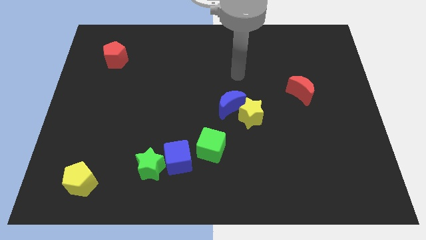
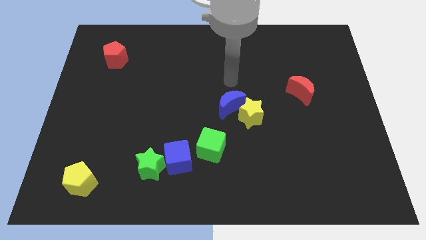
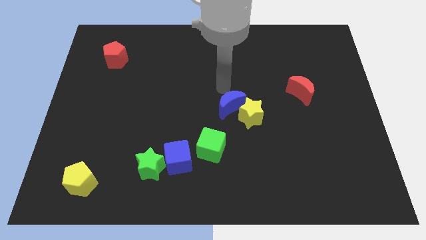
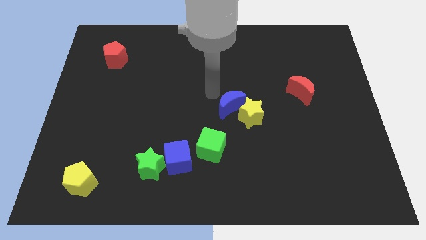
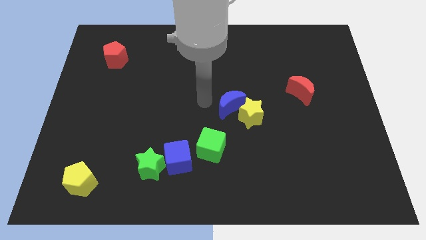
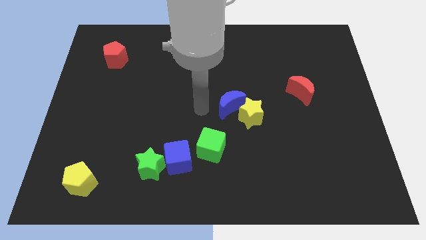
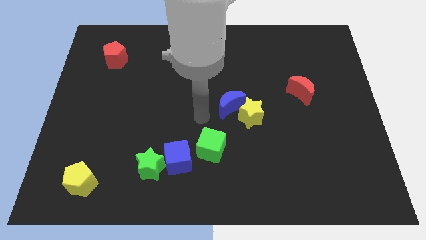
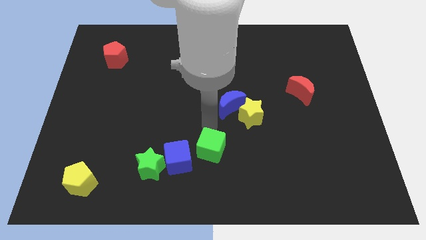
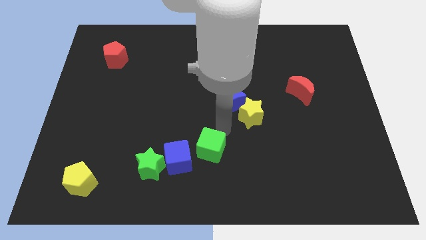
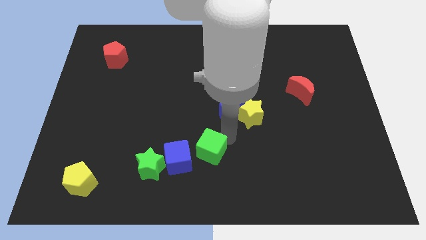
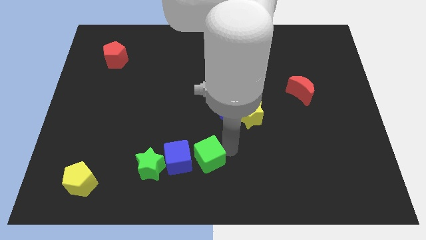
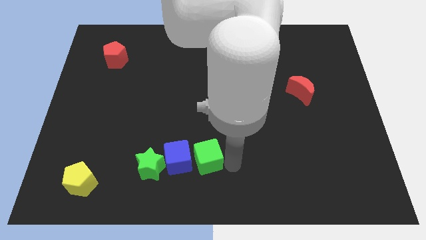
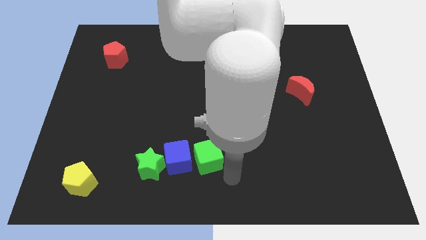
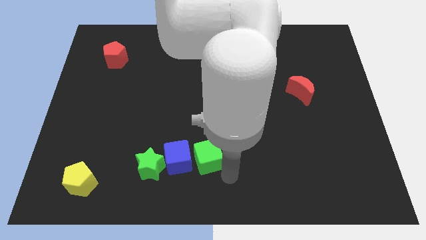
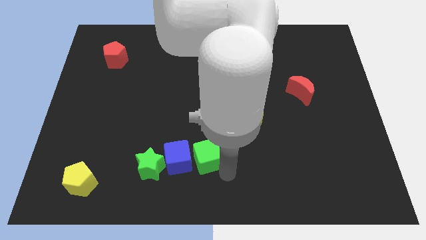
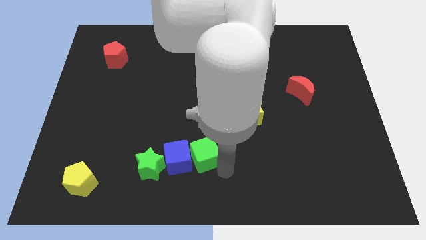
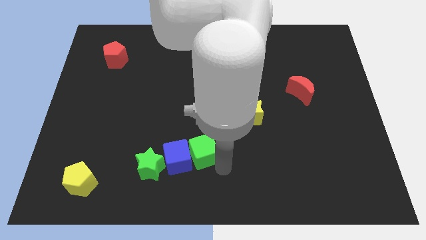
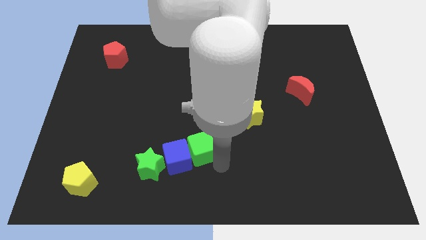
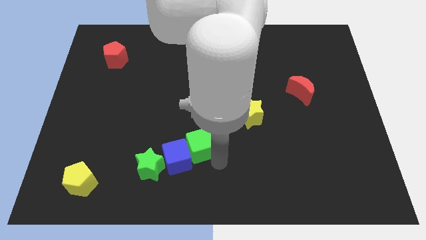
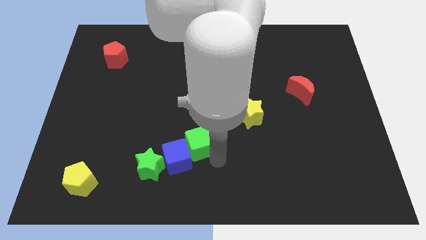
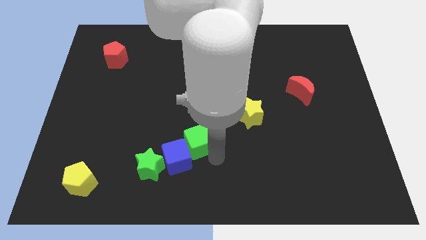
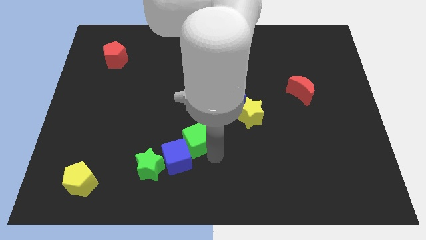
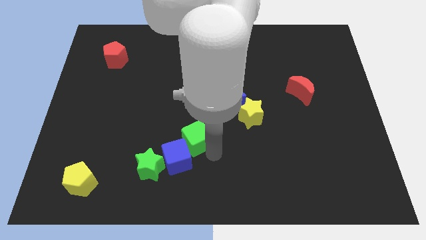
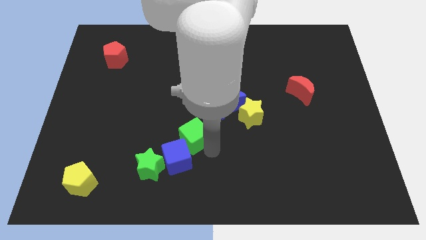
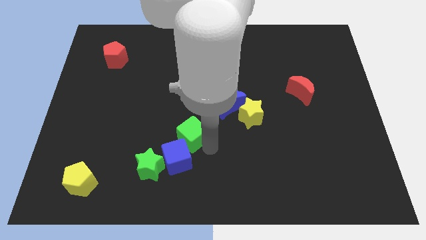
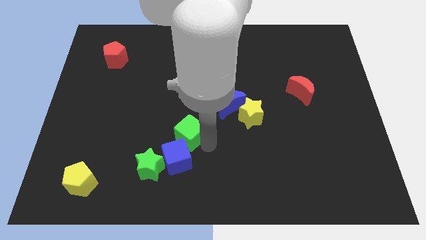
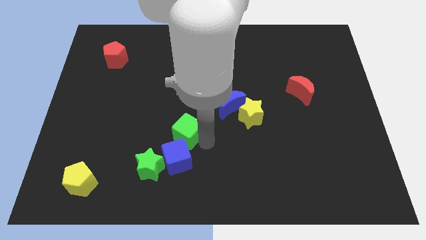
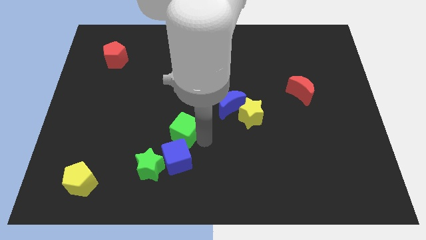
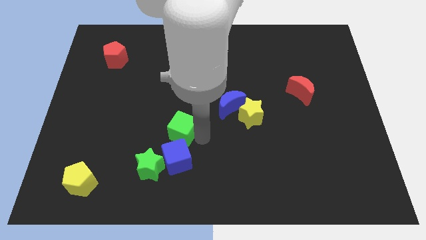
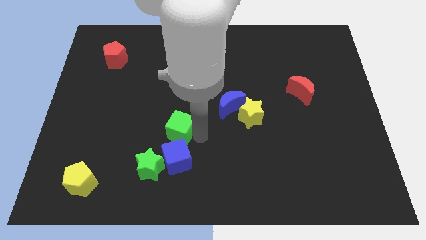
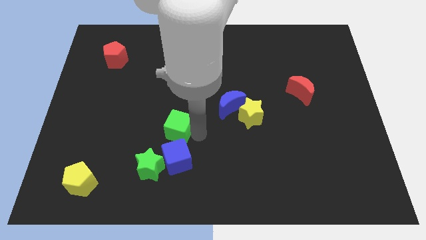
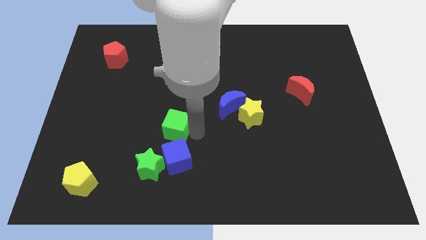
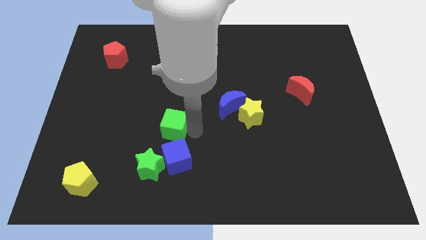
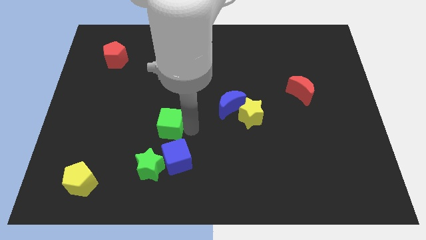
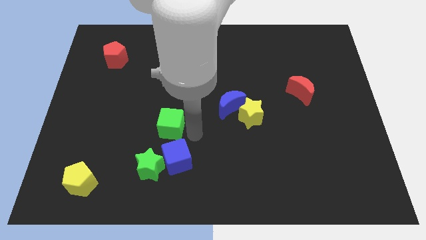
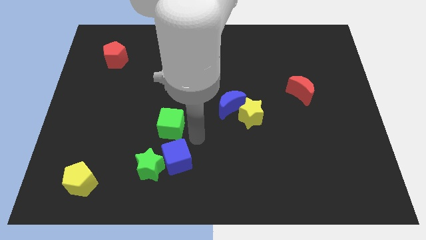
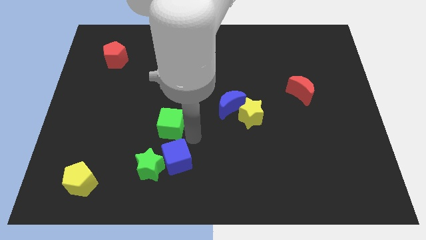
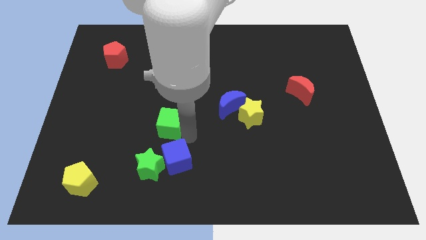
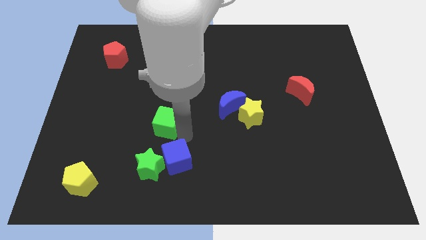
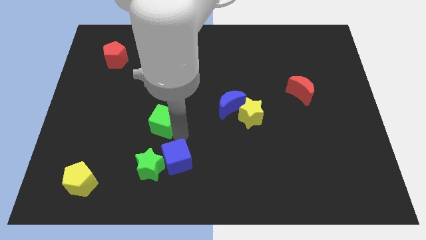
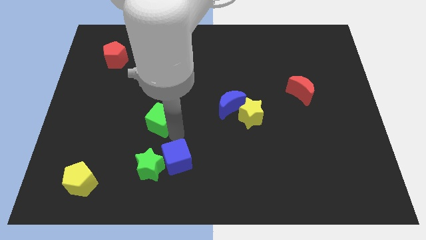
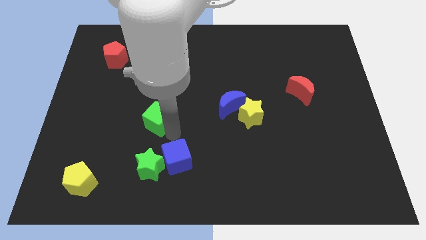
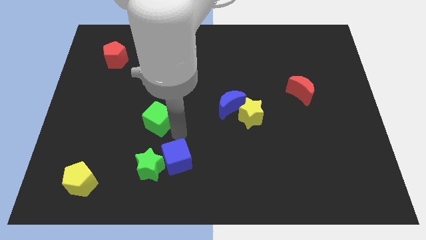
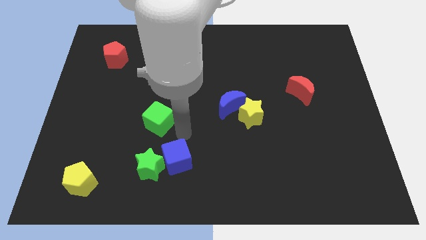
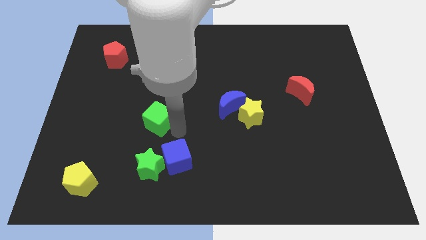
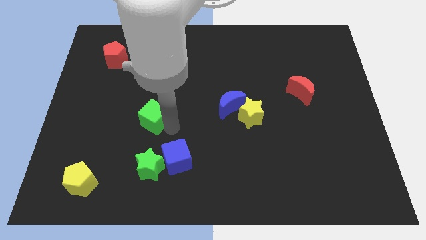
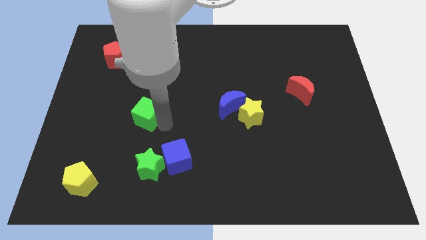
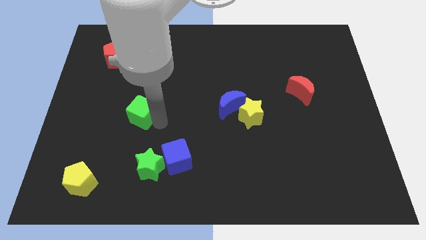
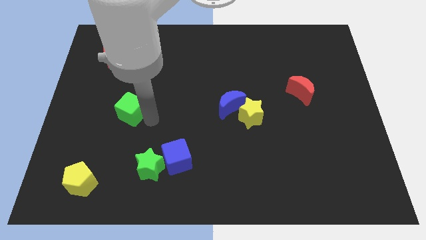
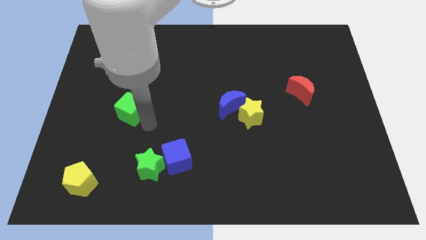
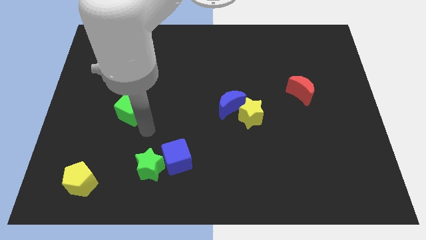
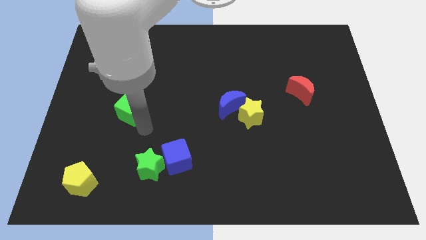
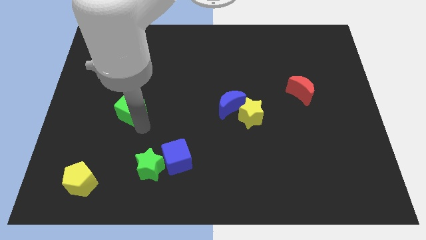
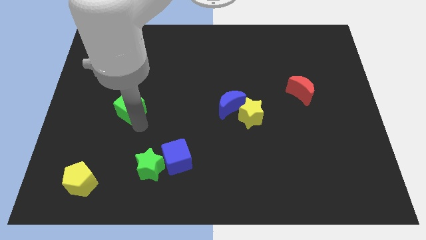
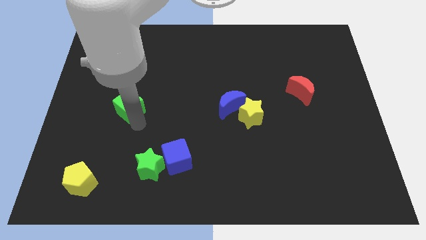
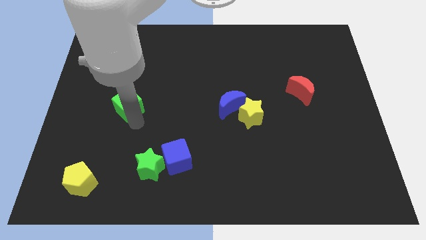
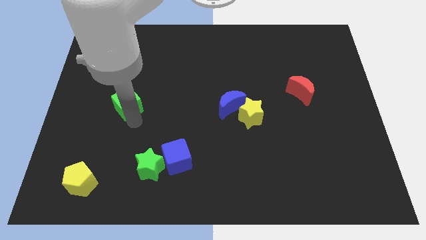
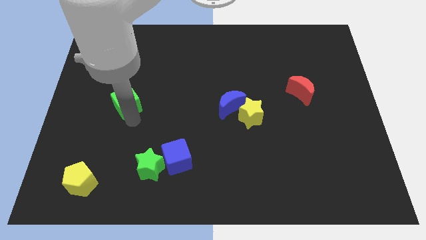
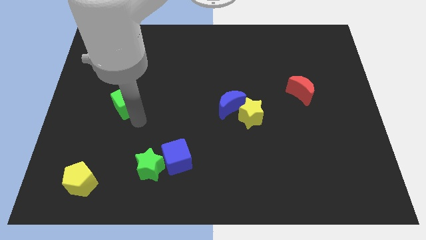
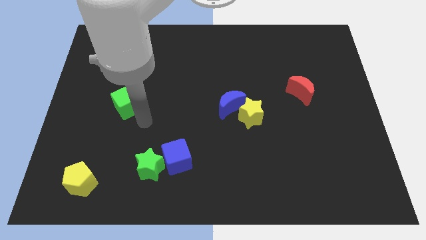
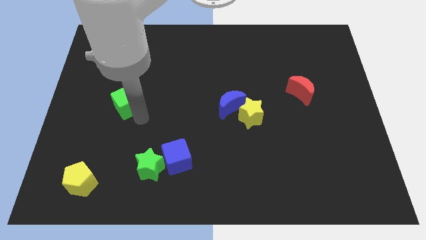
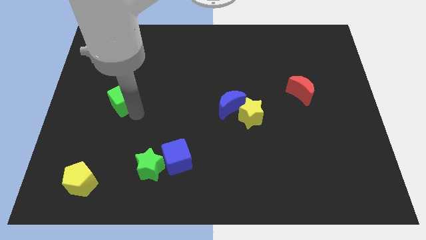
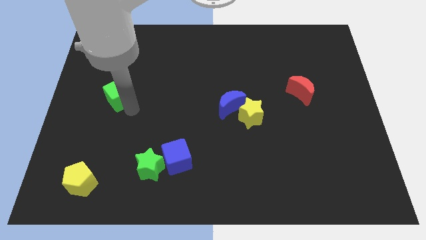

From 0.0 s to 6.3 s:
put the green cube to the bottom of the red pentagon

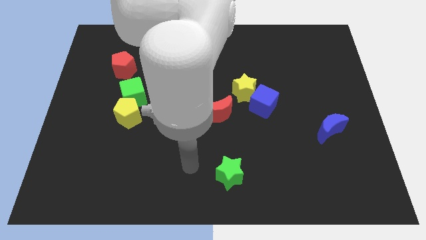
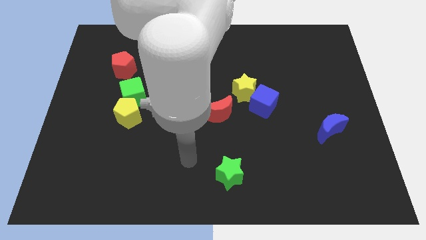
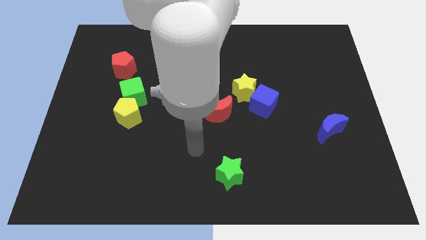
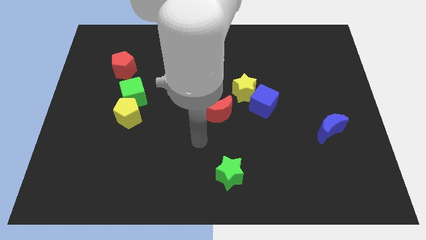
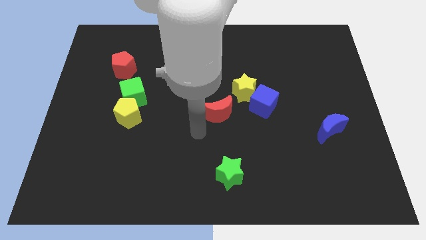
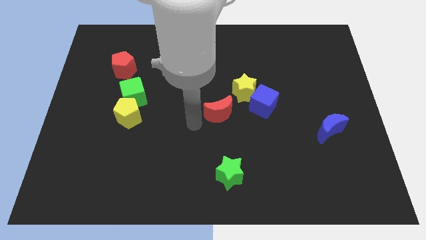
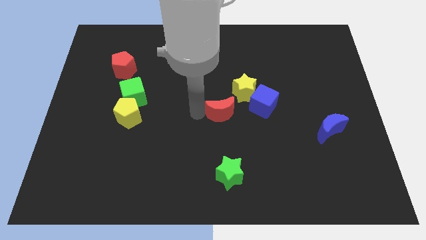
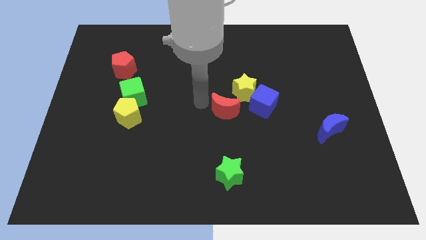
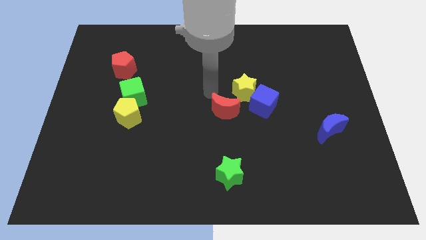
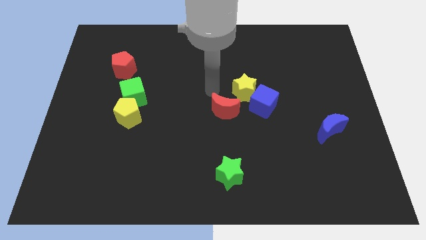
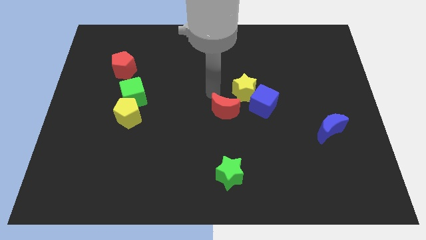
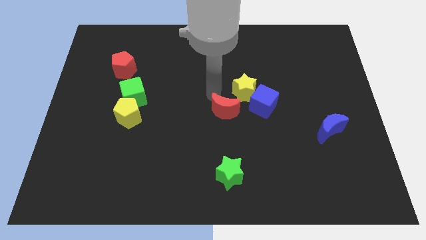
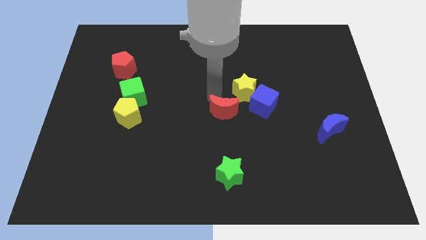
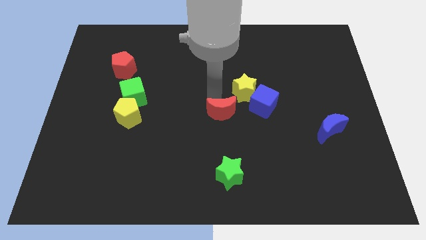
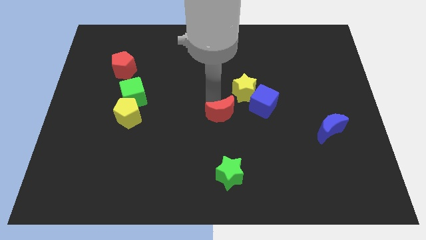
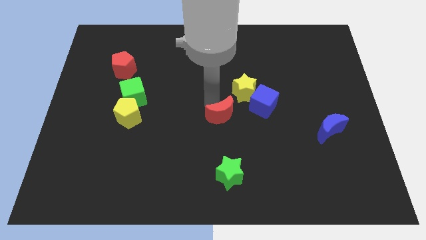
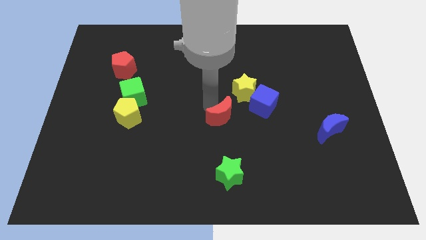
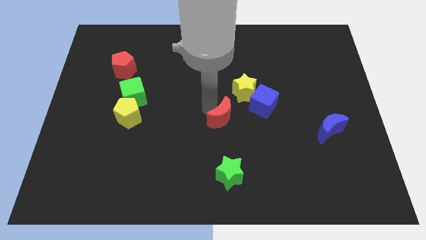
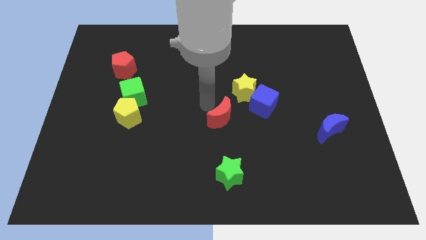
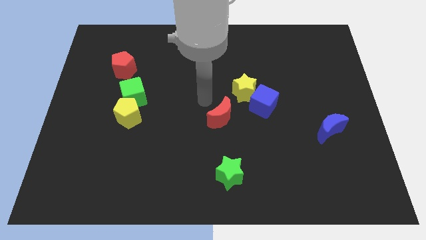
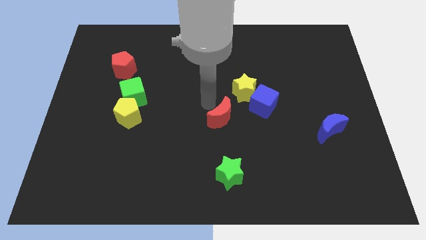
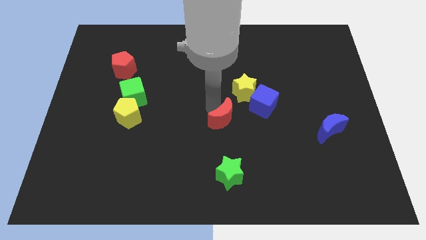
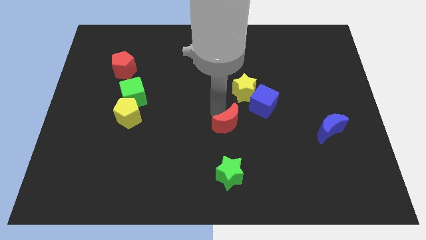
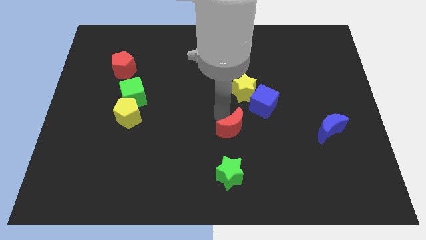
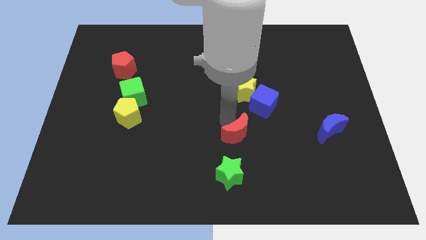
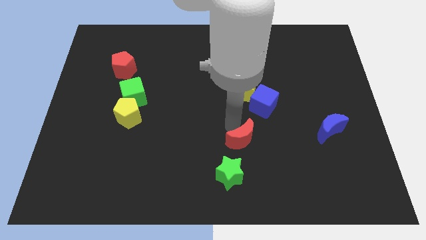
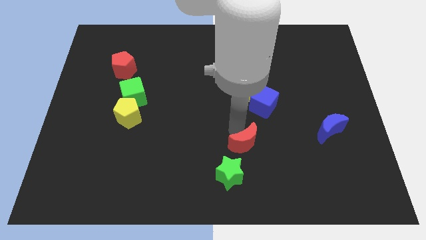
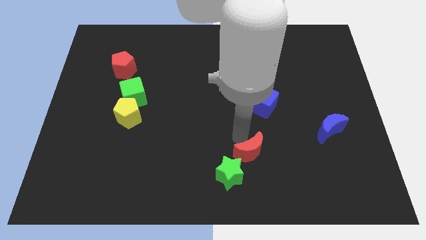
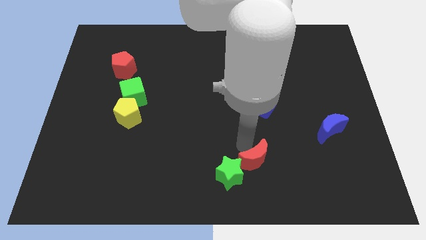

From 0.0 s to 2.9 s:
slide the red moon to the right side of the green star
